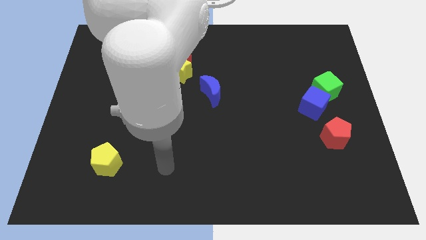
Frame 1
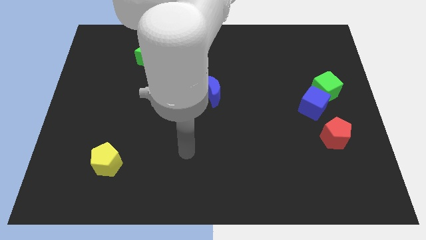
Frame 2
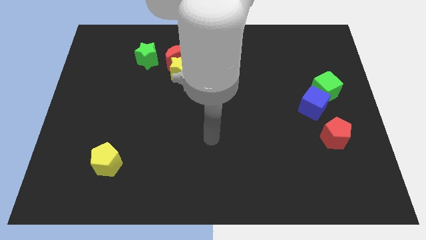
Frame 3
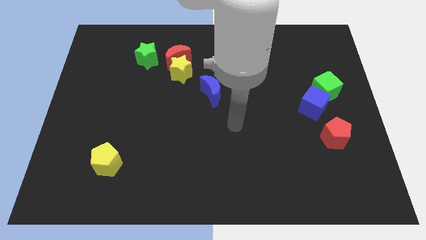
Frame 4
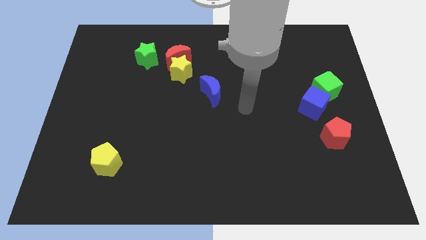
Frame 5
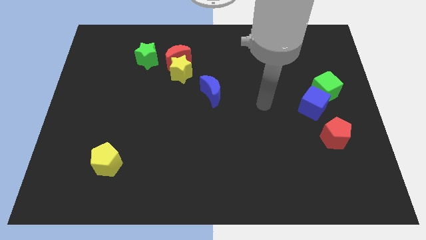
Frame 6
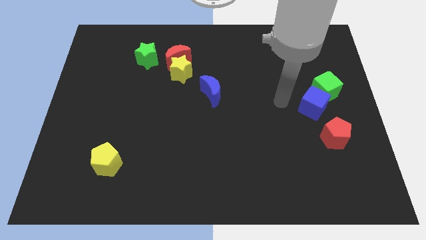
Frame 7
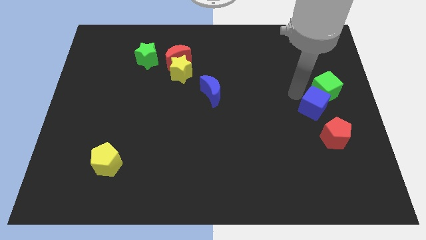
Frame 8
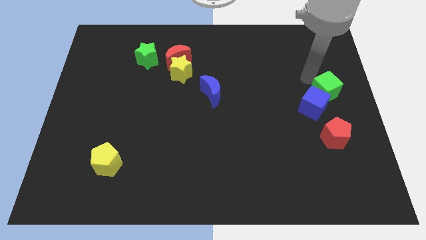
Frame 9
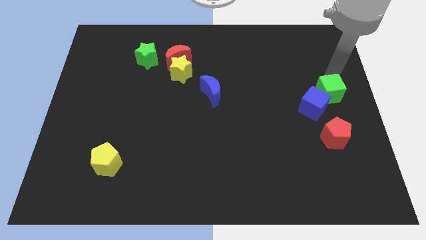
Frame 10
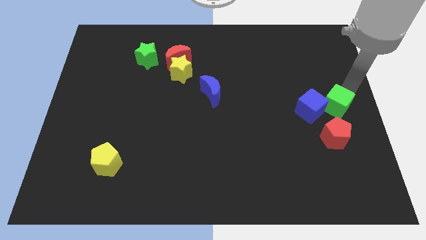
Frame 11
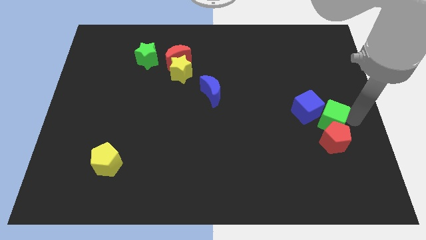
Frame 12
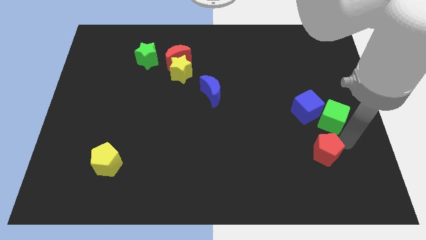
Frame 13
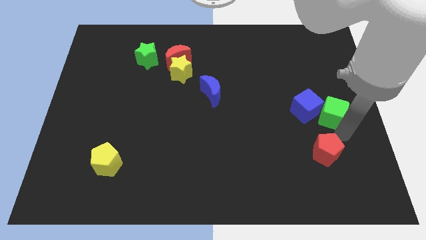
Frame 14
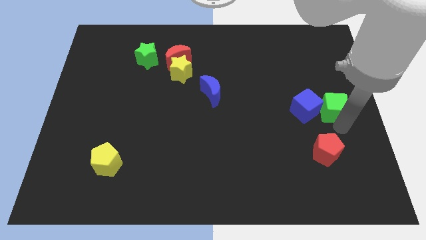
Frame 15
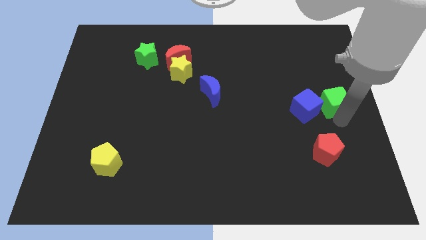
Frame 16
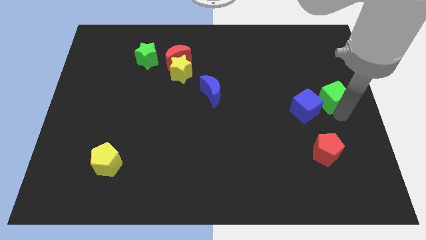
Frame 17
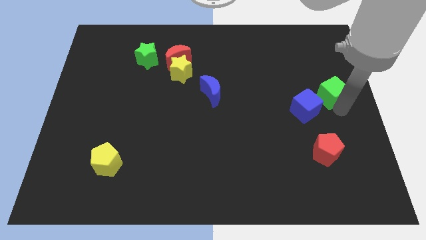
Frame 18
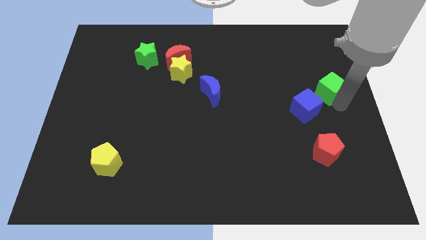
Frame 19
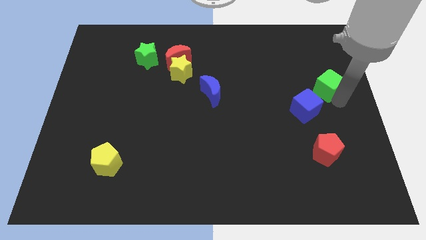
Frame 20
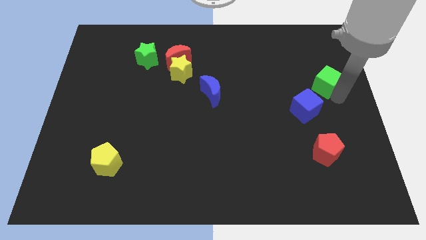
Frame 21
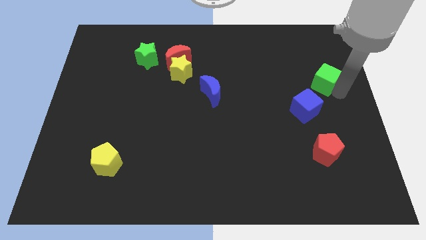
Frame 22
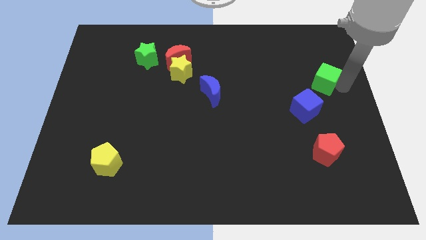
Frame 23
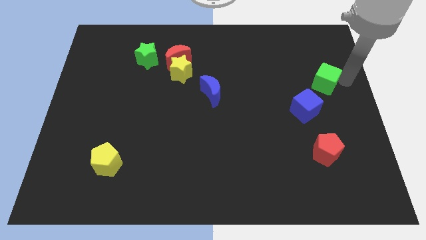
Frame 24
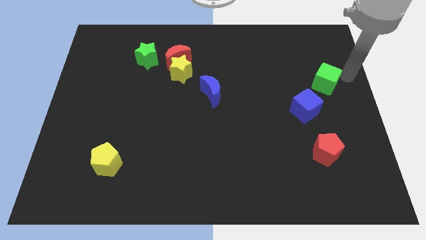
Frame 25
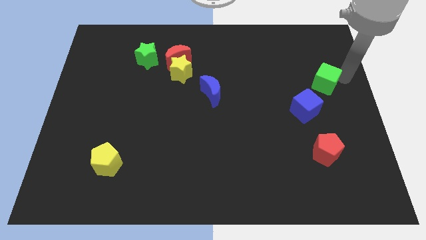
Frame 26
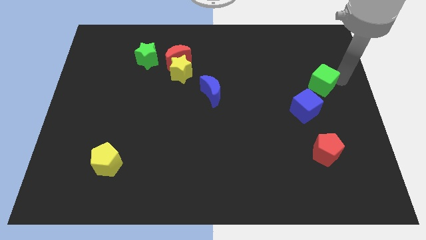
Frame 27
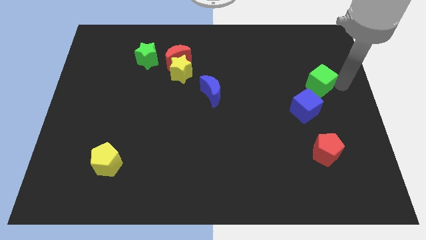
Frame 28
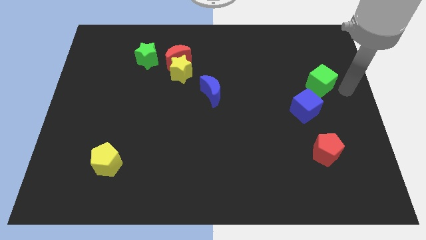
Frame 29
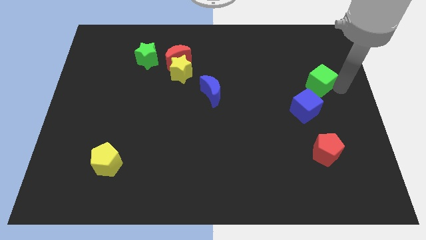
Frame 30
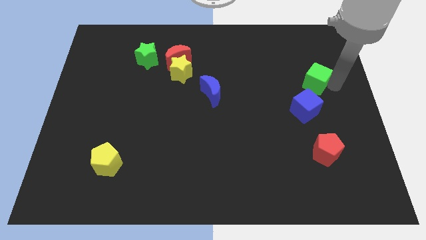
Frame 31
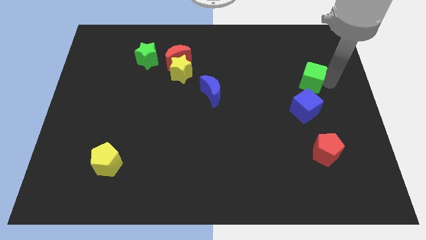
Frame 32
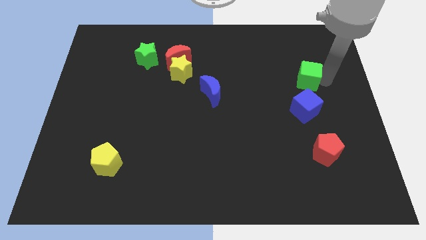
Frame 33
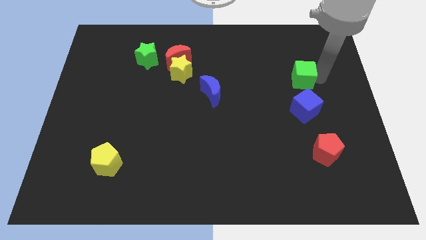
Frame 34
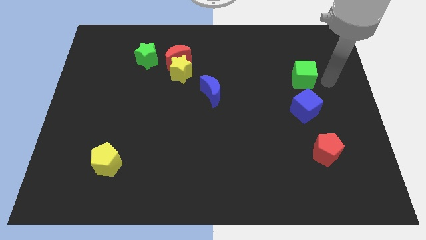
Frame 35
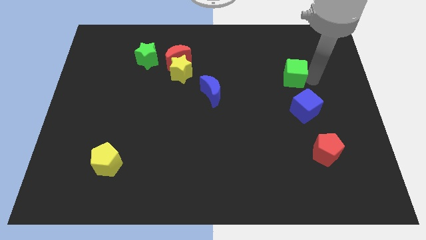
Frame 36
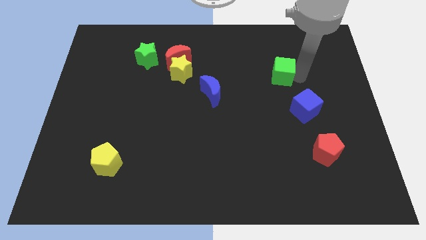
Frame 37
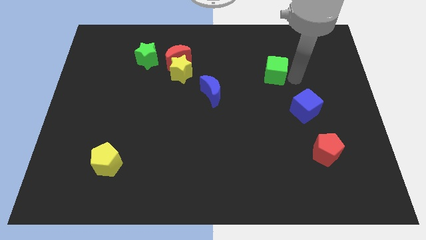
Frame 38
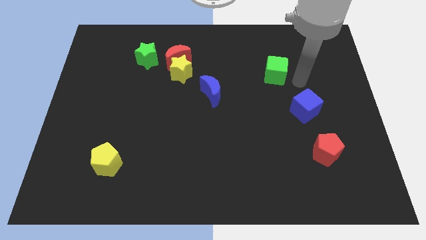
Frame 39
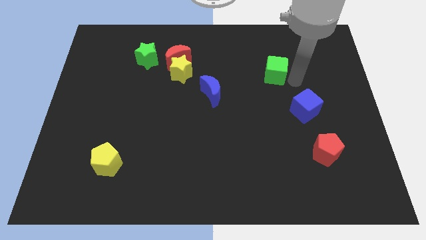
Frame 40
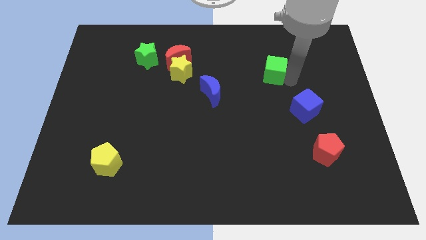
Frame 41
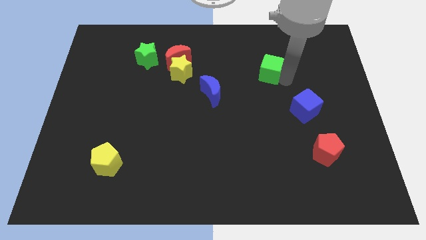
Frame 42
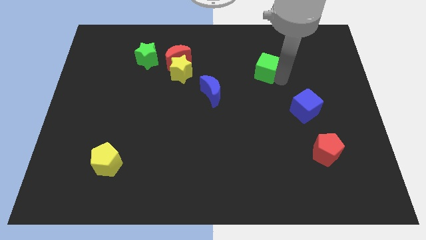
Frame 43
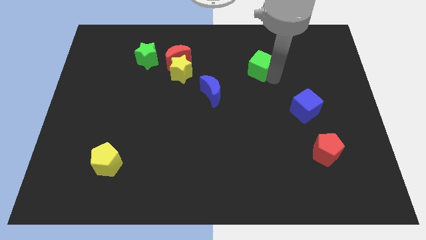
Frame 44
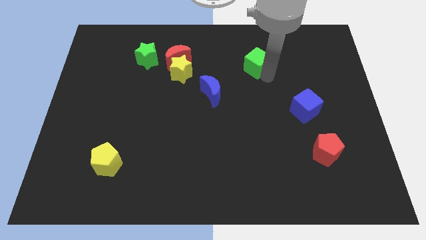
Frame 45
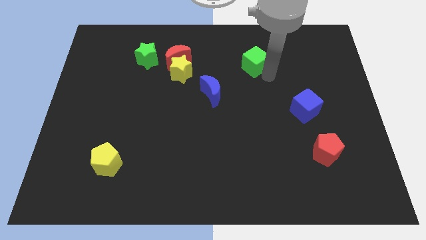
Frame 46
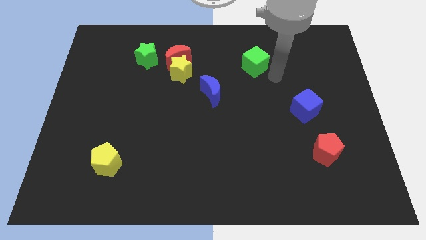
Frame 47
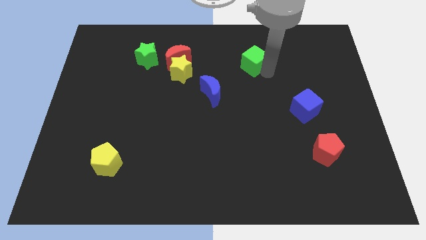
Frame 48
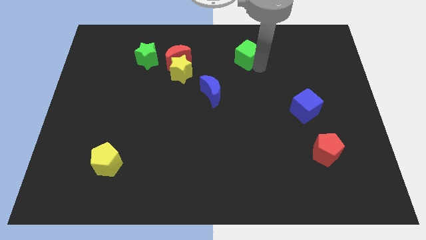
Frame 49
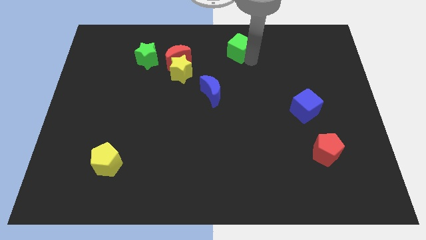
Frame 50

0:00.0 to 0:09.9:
slide the green cube to the top side

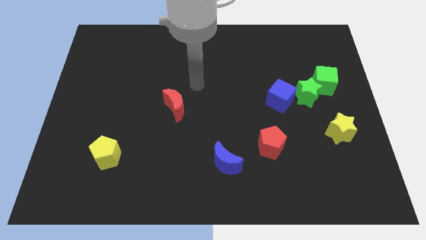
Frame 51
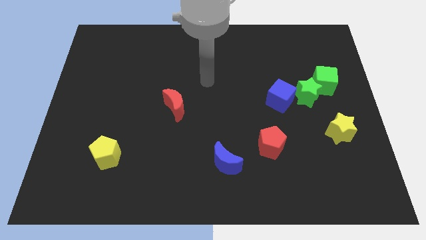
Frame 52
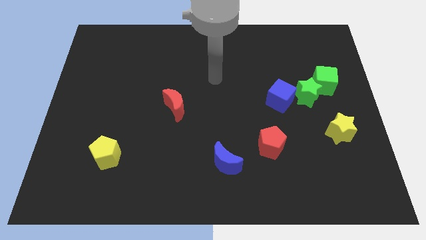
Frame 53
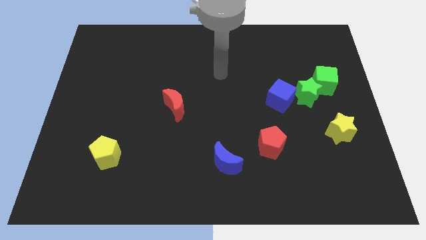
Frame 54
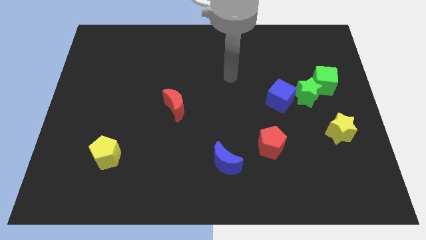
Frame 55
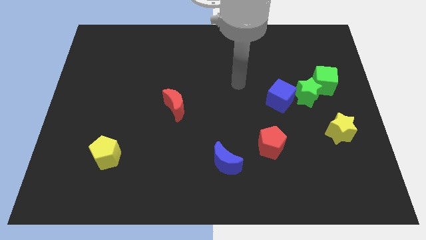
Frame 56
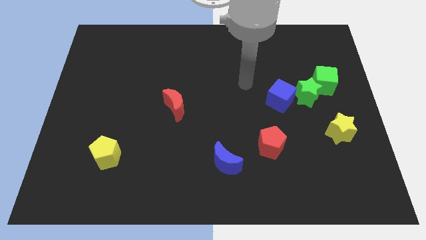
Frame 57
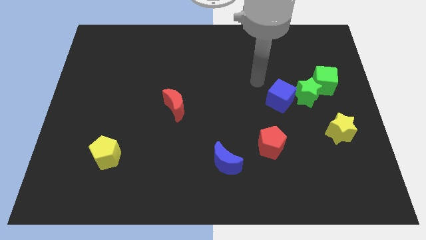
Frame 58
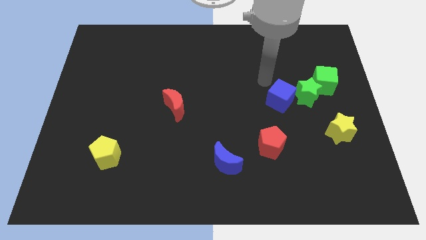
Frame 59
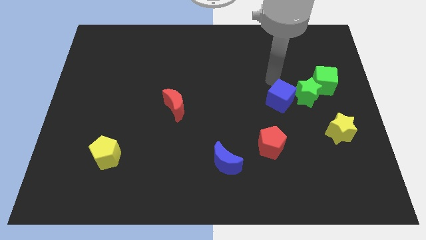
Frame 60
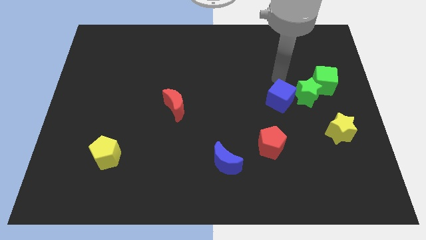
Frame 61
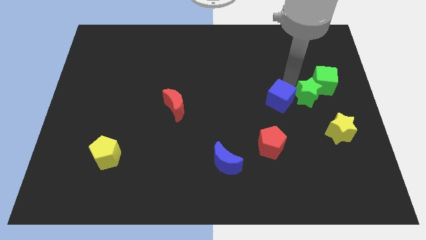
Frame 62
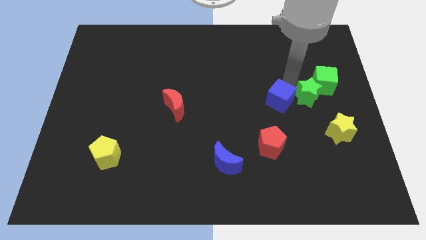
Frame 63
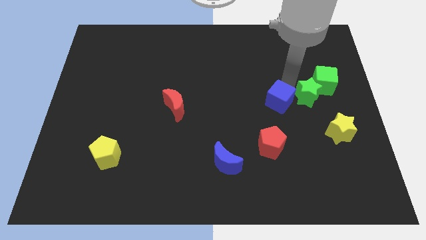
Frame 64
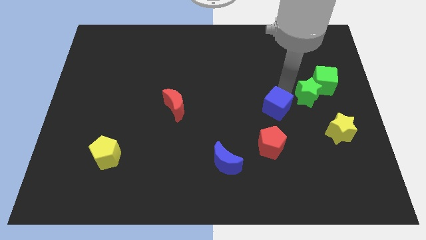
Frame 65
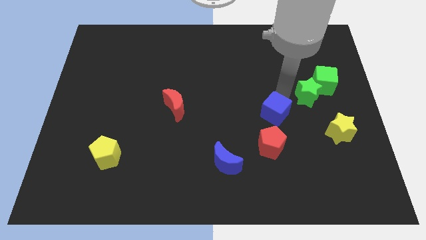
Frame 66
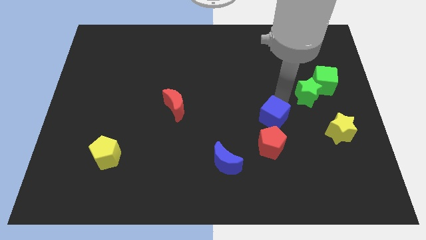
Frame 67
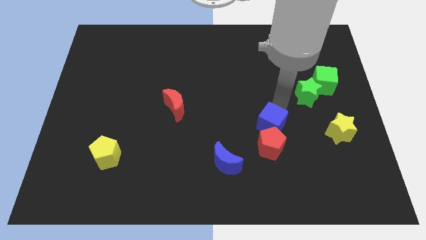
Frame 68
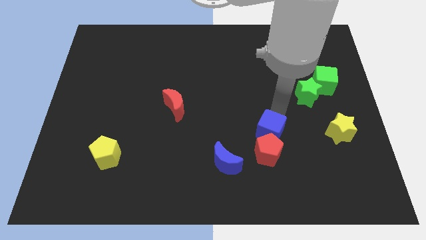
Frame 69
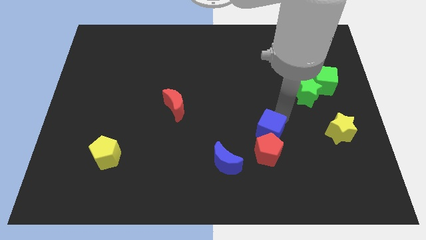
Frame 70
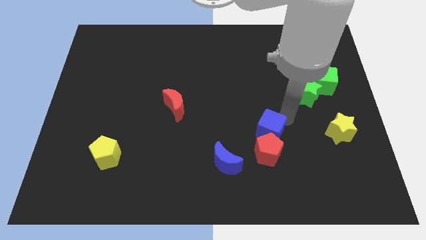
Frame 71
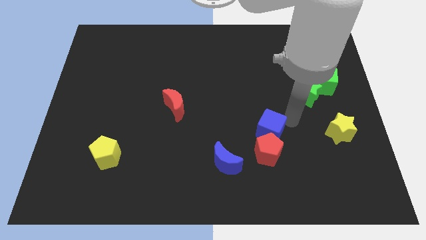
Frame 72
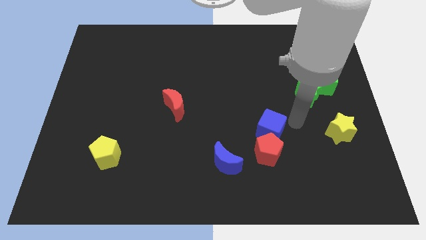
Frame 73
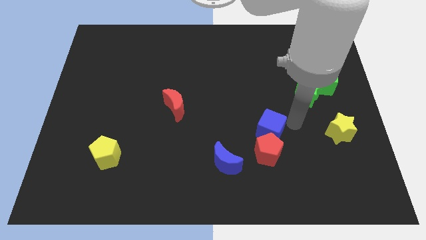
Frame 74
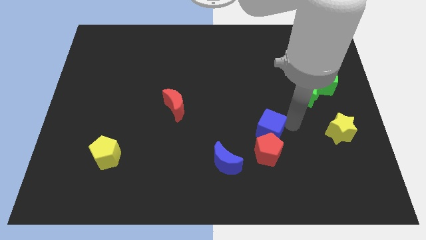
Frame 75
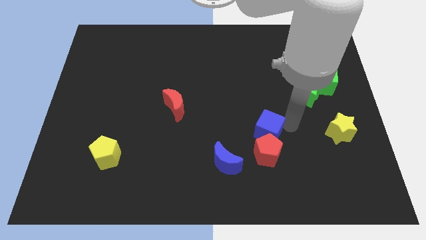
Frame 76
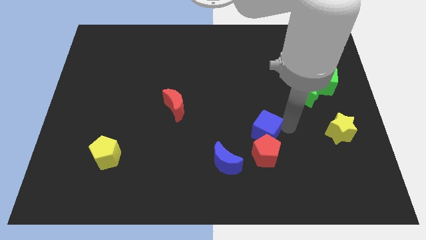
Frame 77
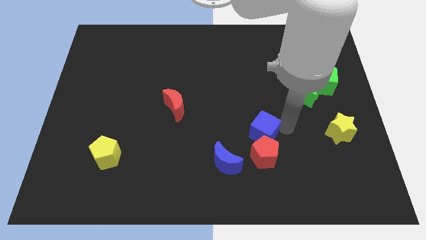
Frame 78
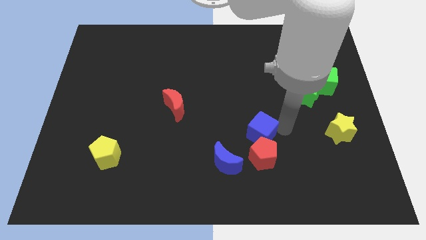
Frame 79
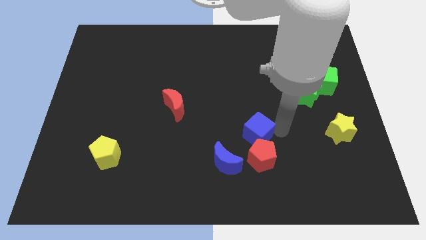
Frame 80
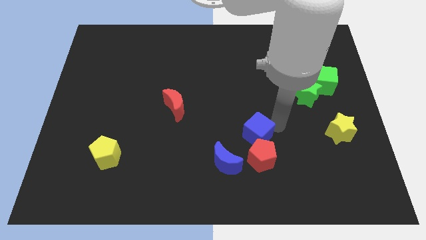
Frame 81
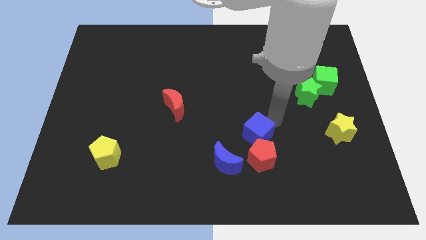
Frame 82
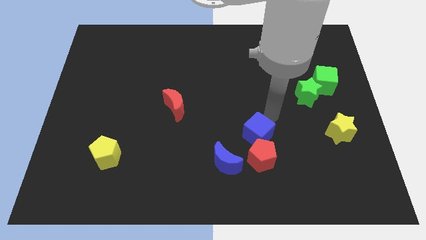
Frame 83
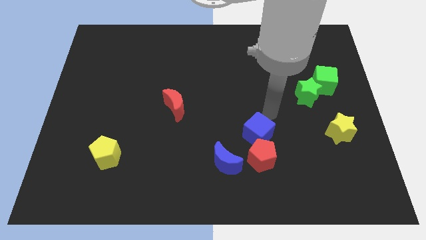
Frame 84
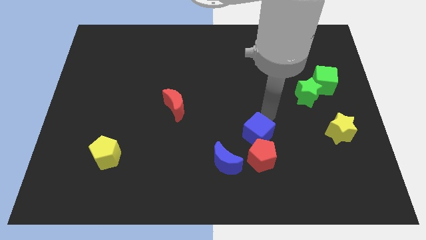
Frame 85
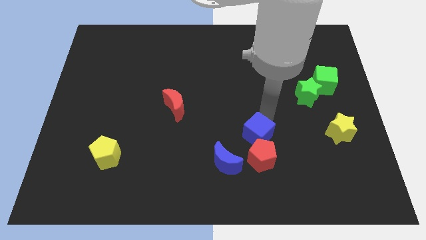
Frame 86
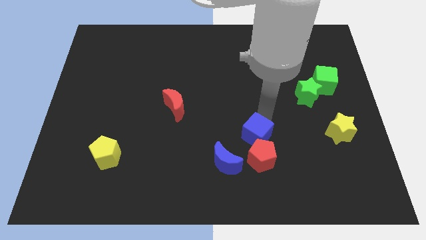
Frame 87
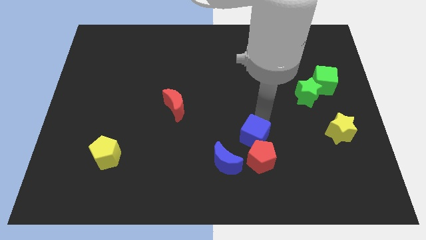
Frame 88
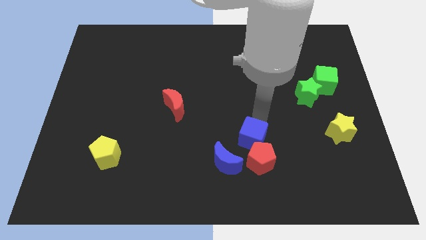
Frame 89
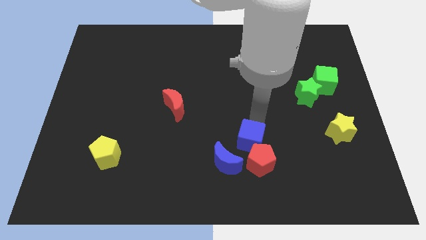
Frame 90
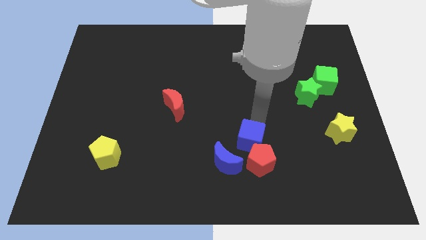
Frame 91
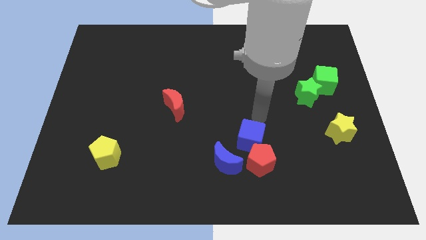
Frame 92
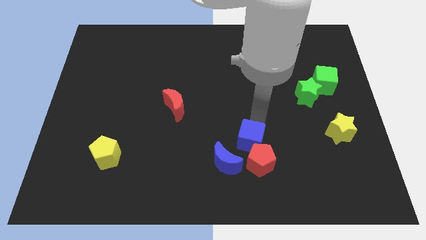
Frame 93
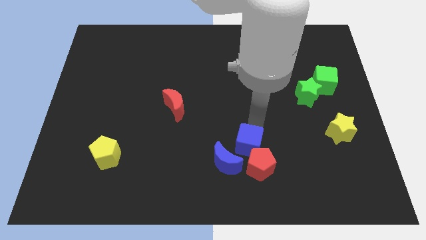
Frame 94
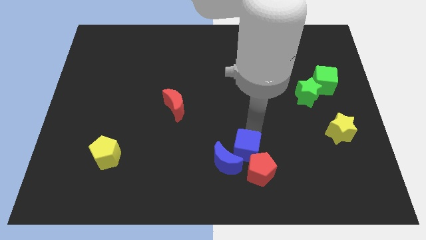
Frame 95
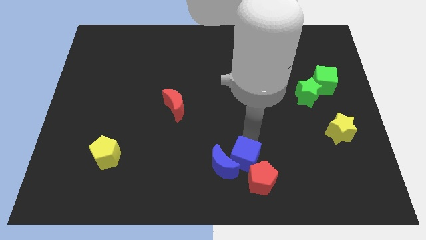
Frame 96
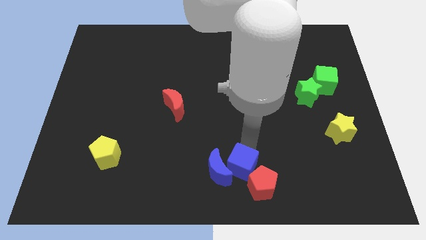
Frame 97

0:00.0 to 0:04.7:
put the blue cube to the bottom
